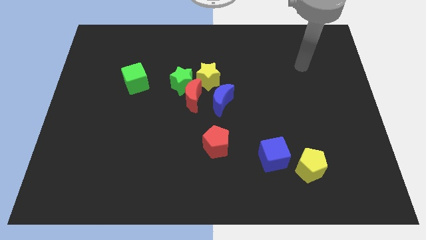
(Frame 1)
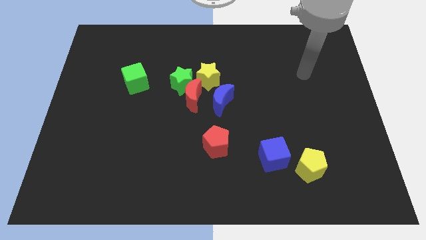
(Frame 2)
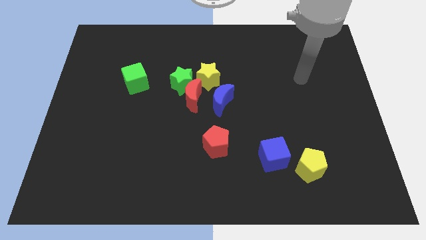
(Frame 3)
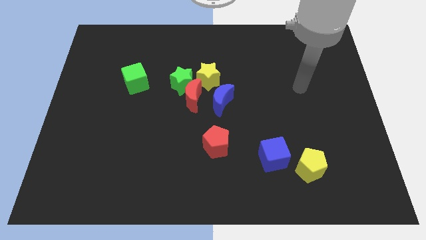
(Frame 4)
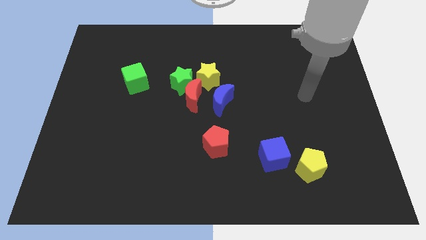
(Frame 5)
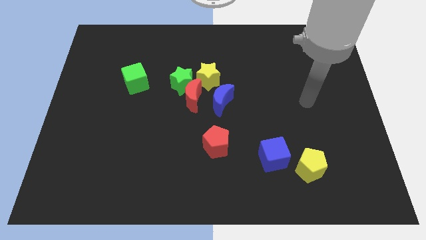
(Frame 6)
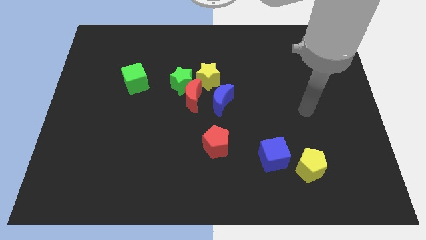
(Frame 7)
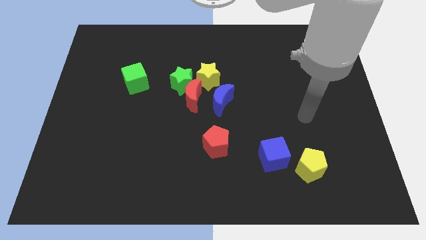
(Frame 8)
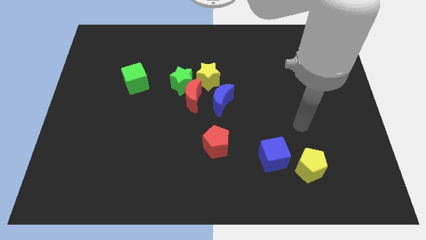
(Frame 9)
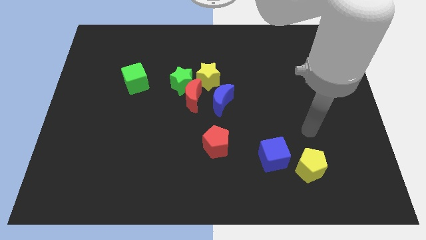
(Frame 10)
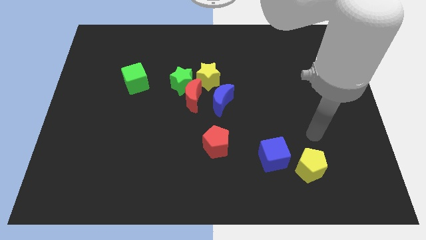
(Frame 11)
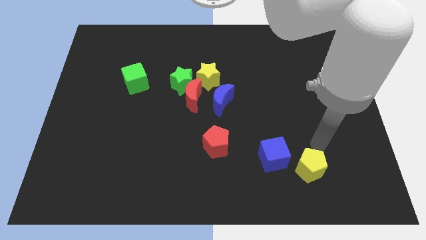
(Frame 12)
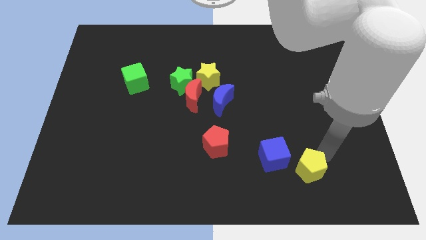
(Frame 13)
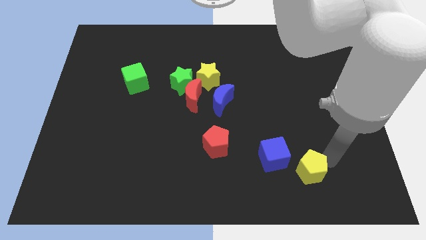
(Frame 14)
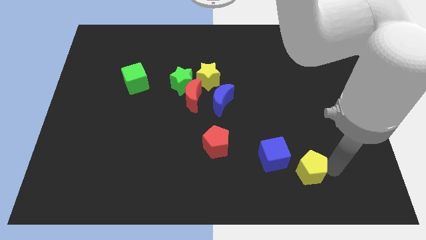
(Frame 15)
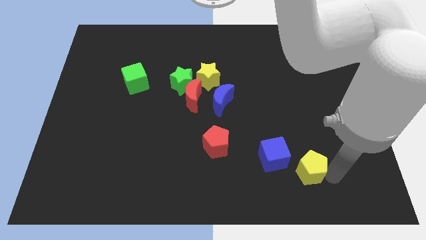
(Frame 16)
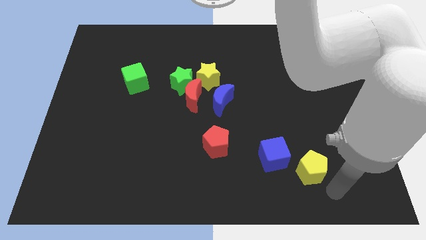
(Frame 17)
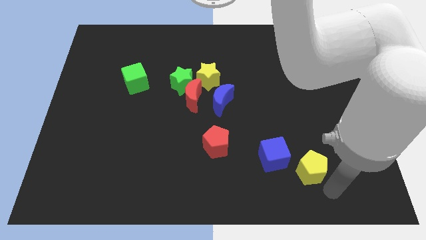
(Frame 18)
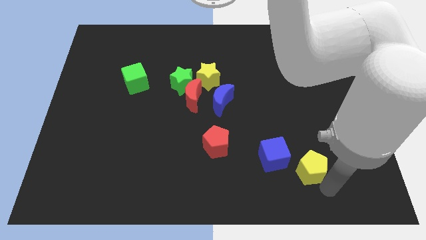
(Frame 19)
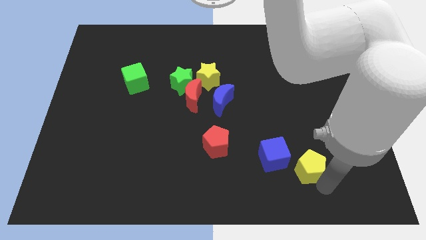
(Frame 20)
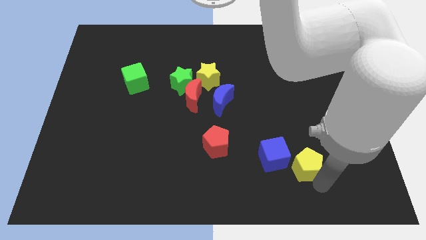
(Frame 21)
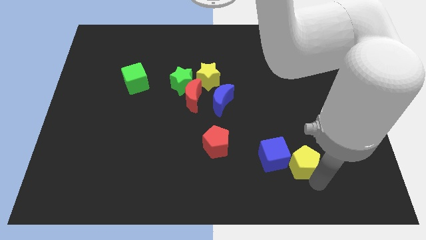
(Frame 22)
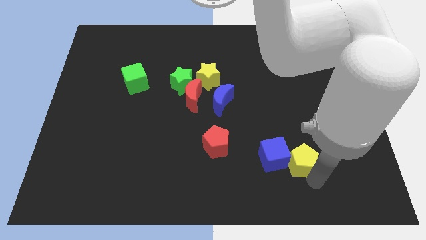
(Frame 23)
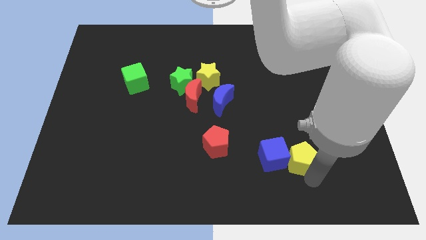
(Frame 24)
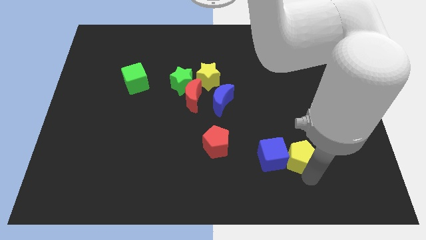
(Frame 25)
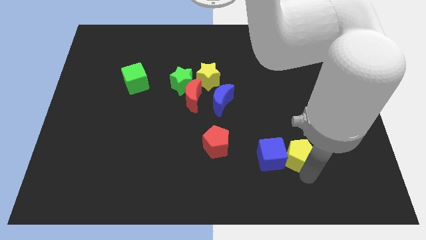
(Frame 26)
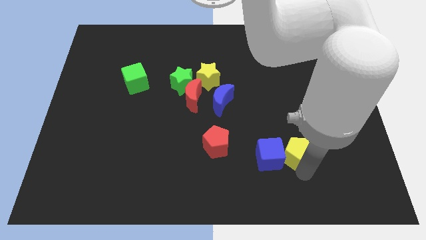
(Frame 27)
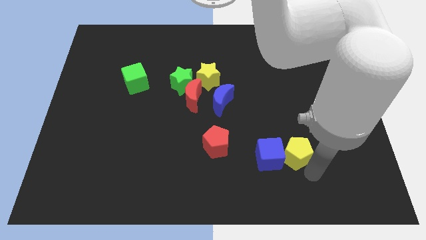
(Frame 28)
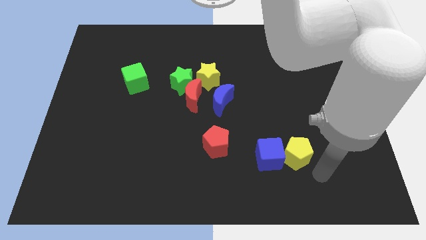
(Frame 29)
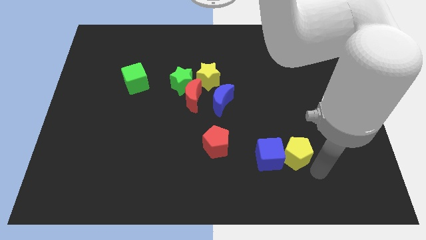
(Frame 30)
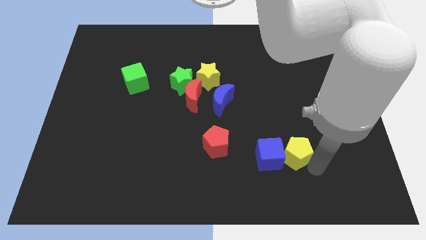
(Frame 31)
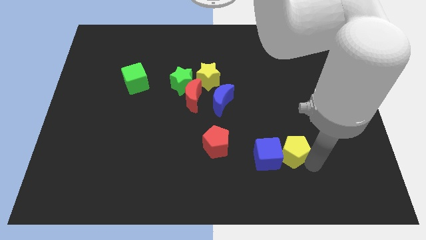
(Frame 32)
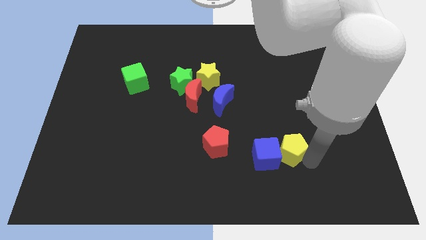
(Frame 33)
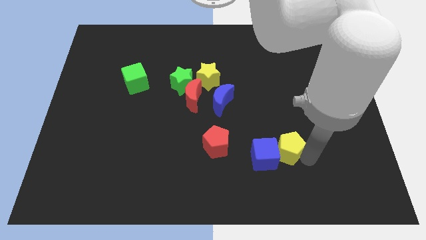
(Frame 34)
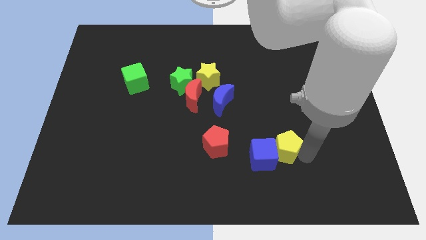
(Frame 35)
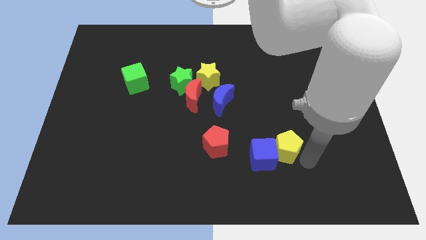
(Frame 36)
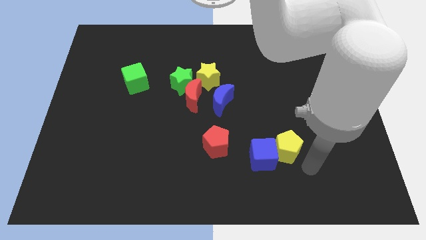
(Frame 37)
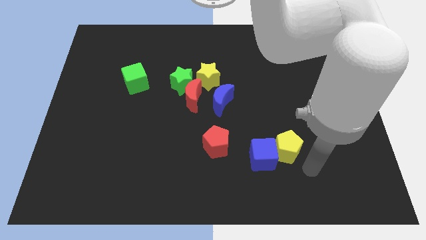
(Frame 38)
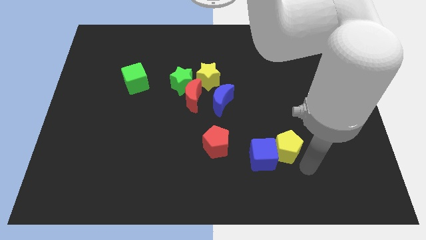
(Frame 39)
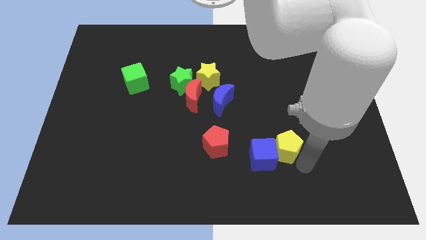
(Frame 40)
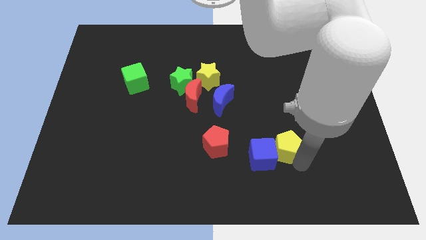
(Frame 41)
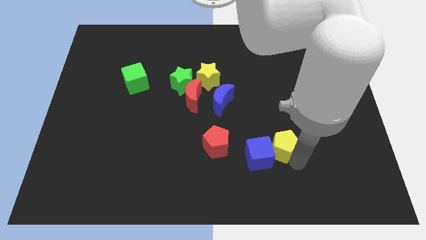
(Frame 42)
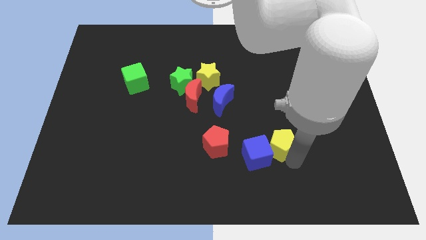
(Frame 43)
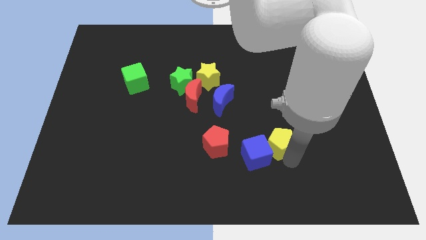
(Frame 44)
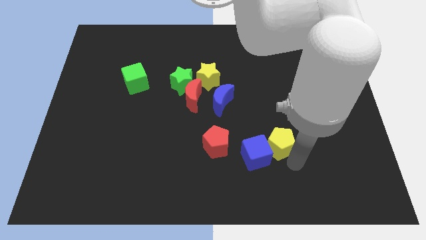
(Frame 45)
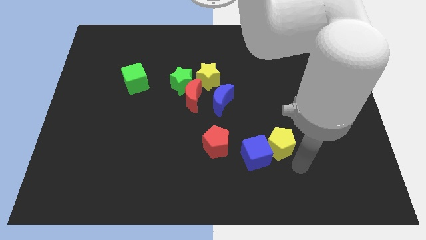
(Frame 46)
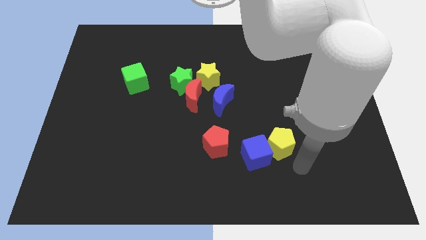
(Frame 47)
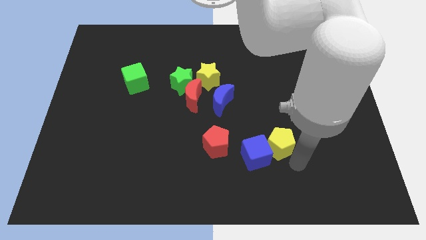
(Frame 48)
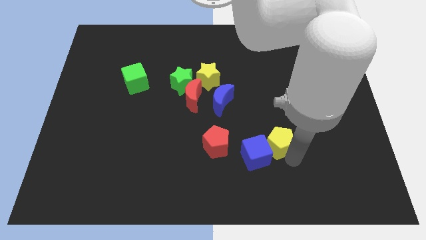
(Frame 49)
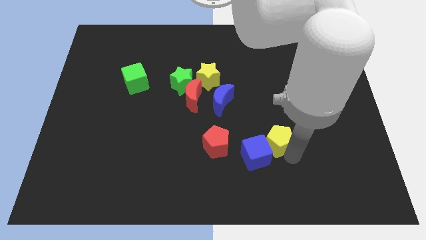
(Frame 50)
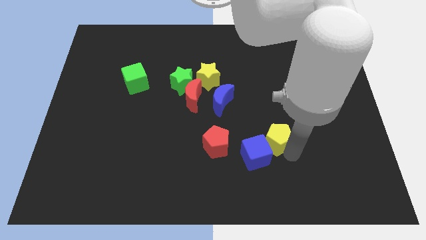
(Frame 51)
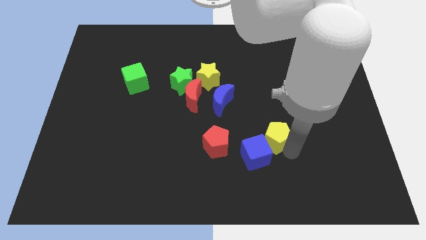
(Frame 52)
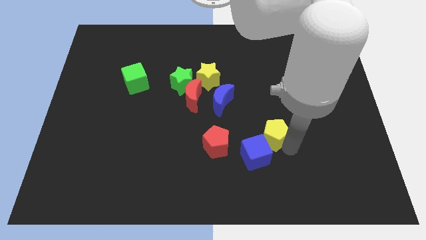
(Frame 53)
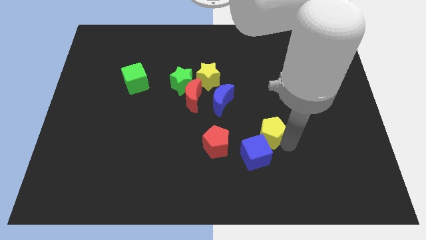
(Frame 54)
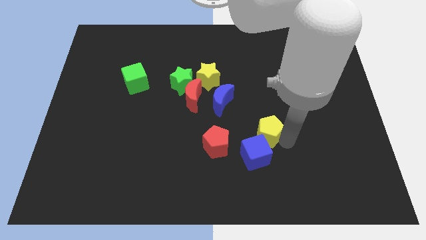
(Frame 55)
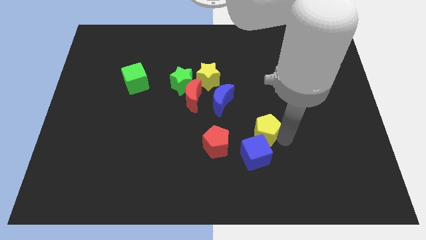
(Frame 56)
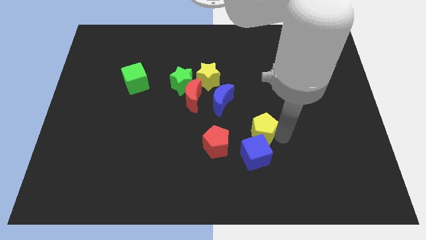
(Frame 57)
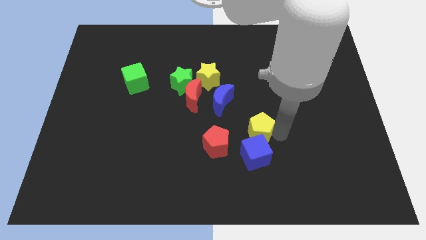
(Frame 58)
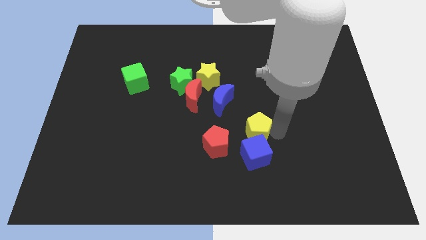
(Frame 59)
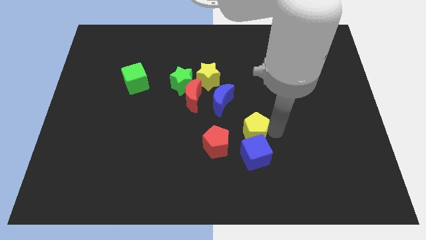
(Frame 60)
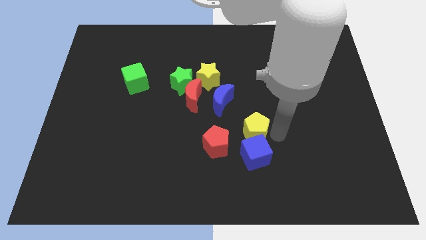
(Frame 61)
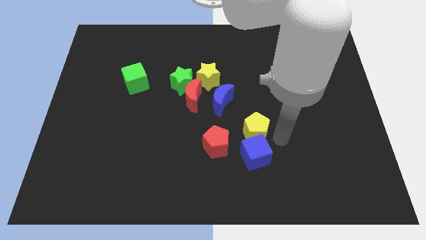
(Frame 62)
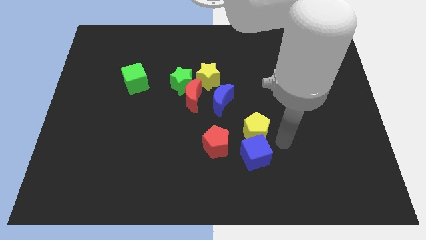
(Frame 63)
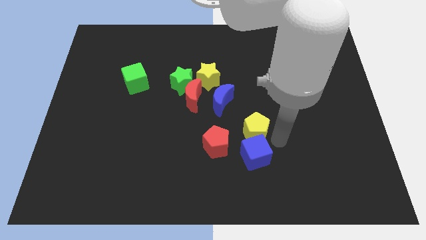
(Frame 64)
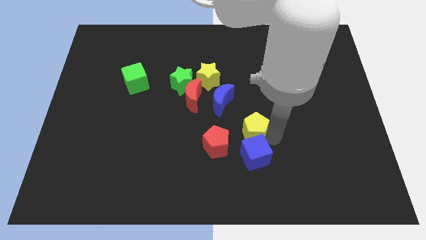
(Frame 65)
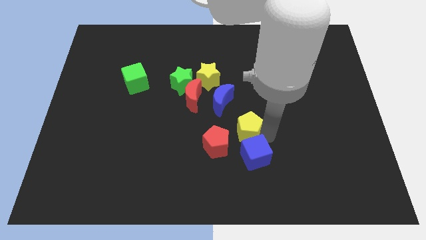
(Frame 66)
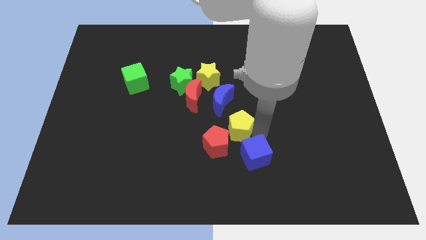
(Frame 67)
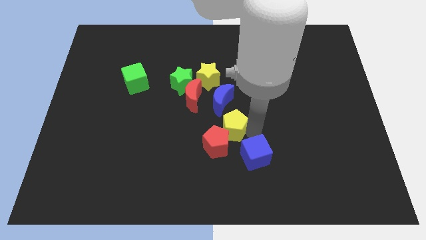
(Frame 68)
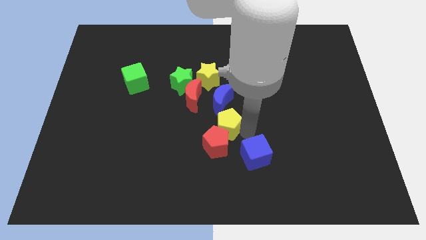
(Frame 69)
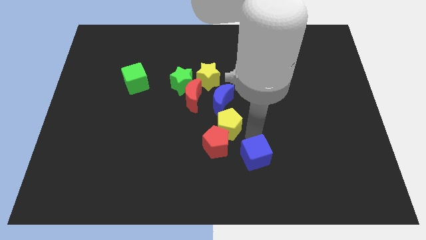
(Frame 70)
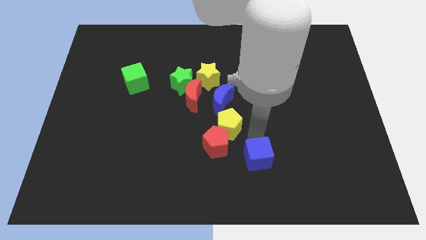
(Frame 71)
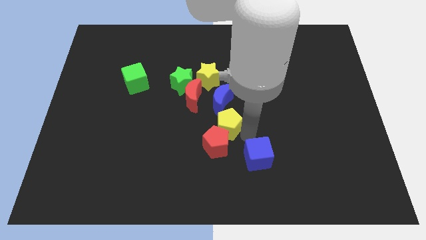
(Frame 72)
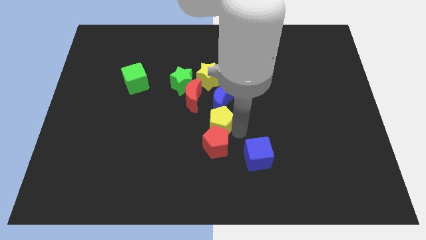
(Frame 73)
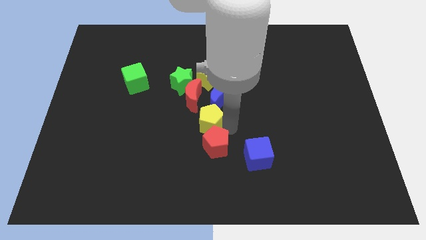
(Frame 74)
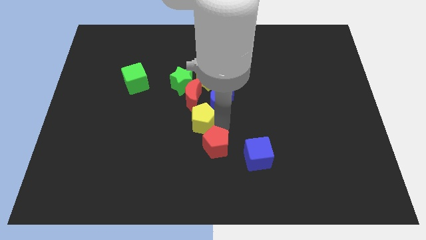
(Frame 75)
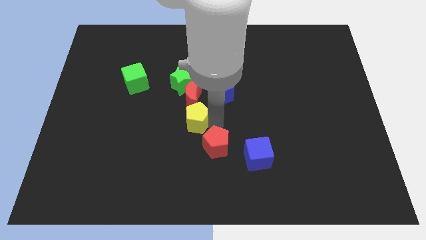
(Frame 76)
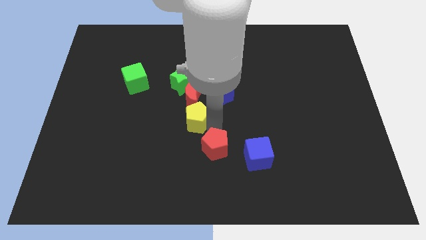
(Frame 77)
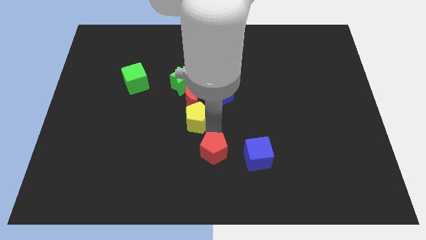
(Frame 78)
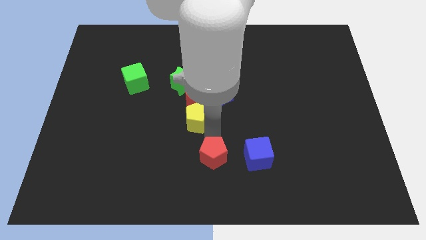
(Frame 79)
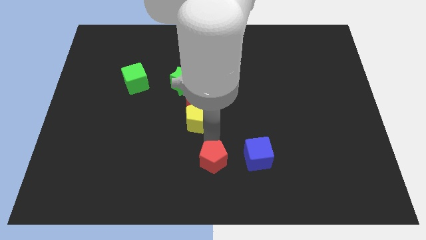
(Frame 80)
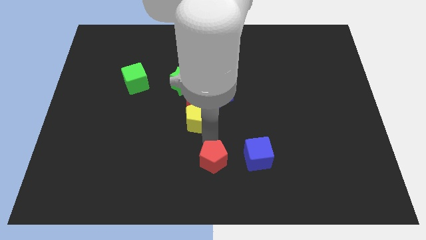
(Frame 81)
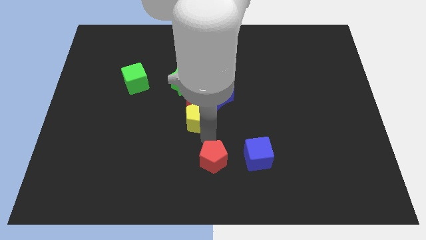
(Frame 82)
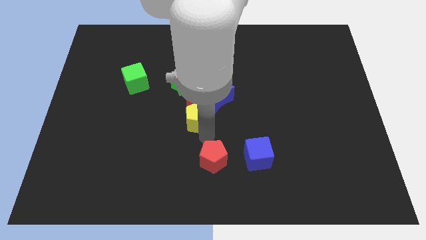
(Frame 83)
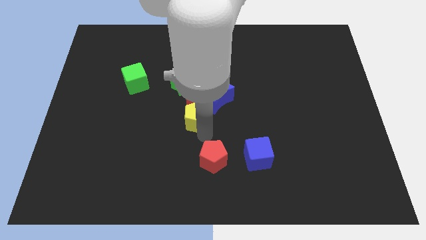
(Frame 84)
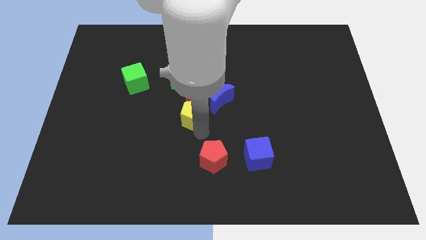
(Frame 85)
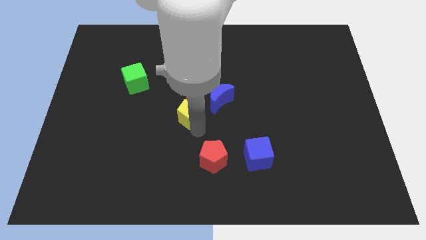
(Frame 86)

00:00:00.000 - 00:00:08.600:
move the yellow pentagon next to the red moon
